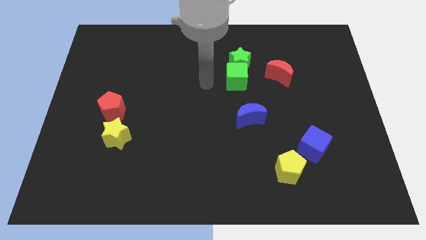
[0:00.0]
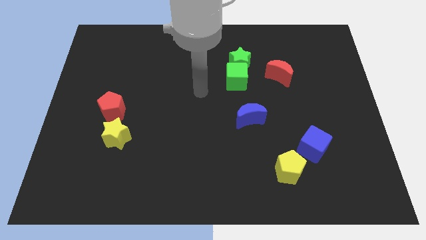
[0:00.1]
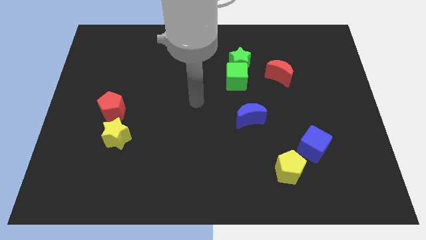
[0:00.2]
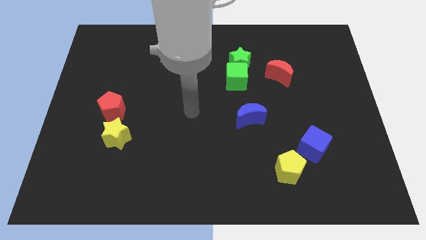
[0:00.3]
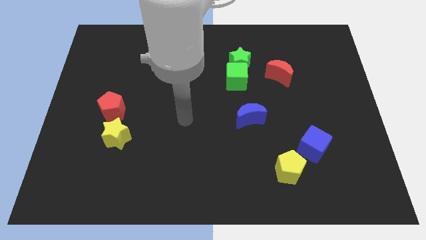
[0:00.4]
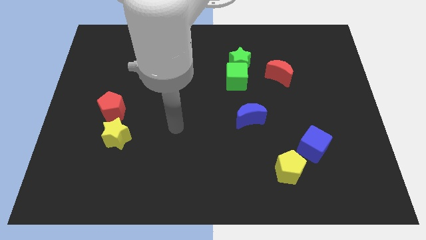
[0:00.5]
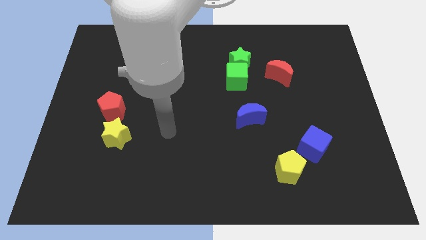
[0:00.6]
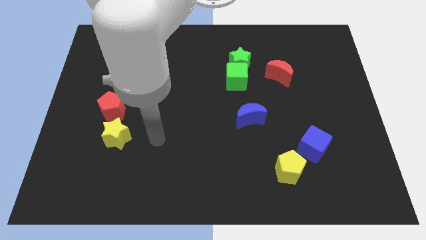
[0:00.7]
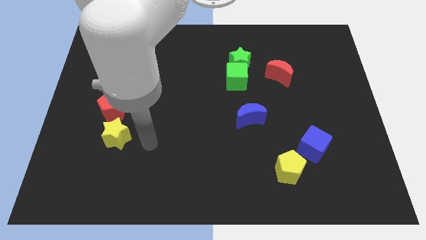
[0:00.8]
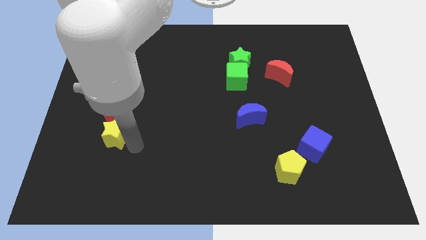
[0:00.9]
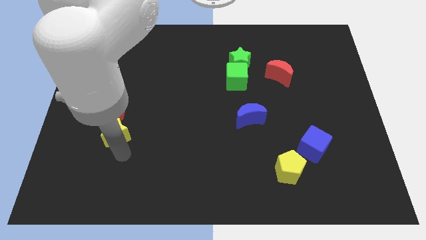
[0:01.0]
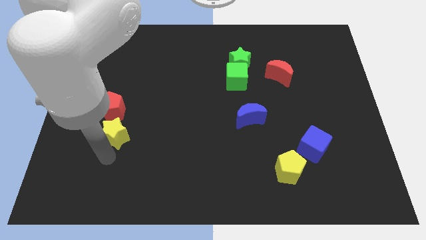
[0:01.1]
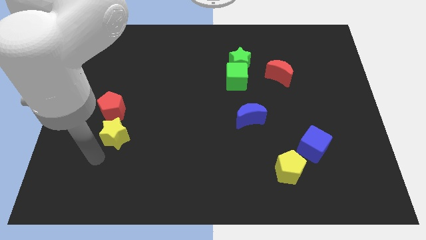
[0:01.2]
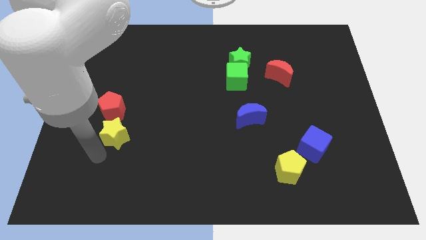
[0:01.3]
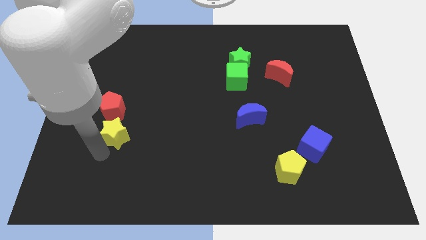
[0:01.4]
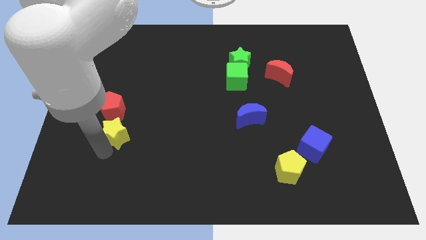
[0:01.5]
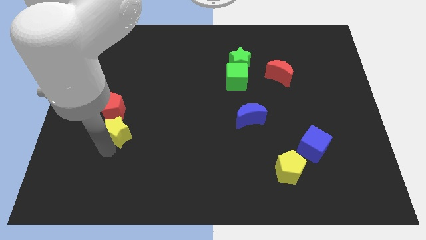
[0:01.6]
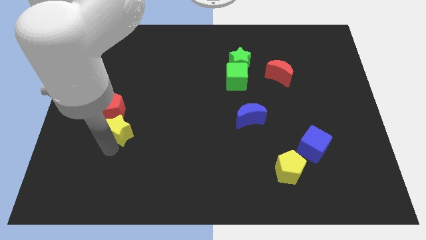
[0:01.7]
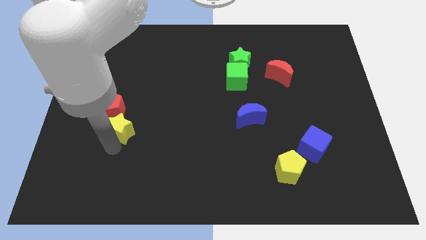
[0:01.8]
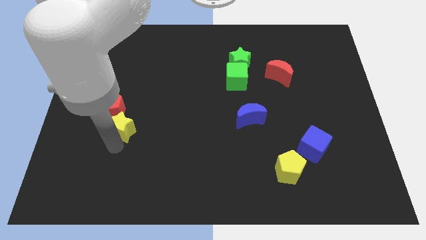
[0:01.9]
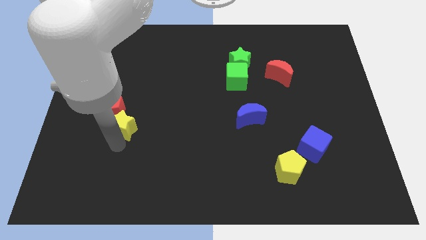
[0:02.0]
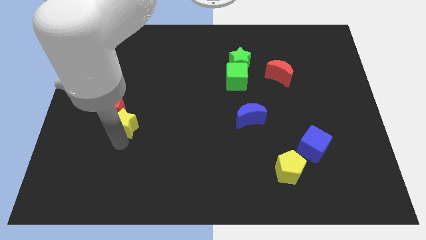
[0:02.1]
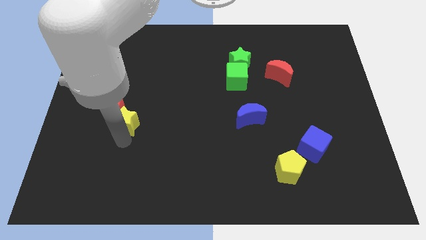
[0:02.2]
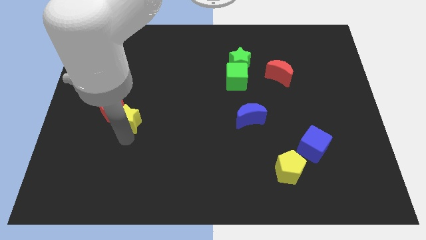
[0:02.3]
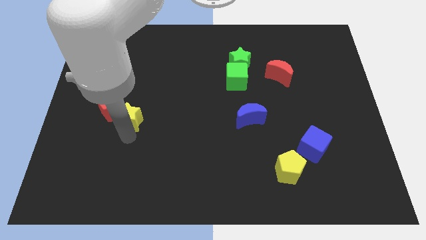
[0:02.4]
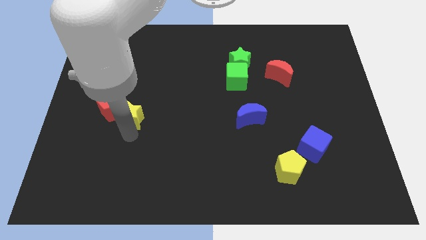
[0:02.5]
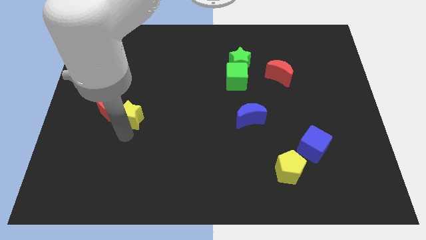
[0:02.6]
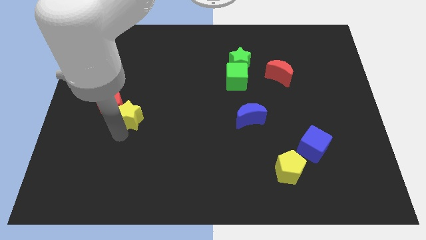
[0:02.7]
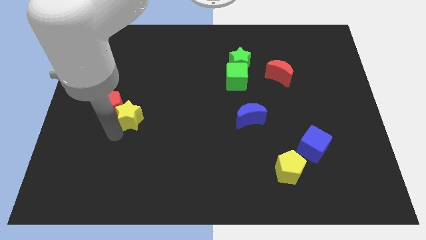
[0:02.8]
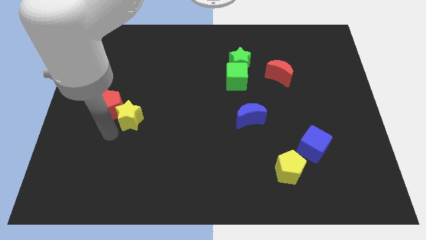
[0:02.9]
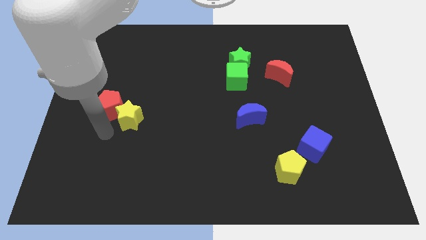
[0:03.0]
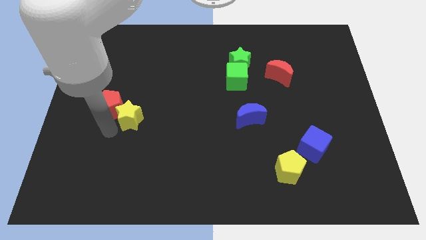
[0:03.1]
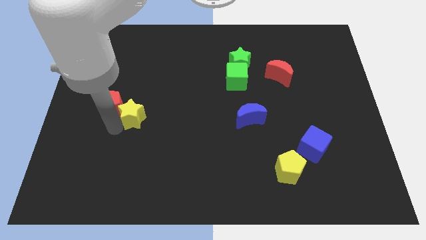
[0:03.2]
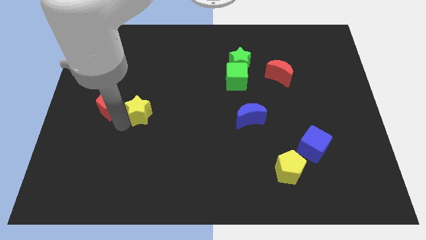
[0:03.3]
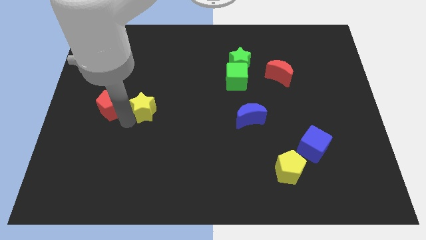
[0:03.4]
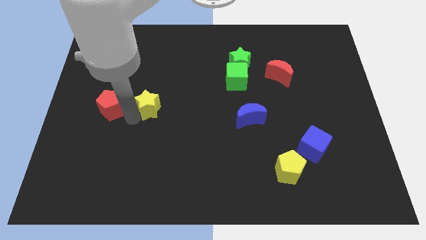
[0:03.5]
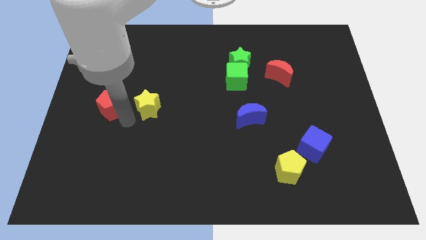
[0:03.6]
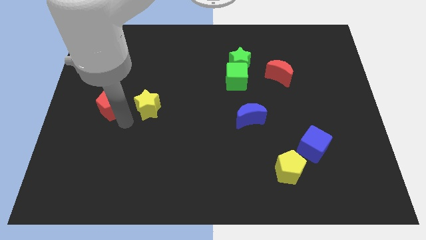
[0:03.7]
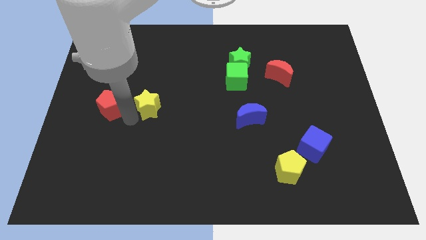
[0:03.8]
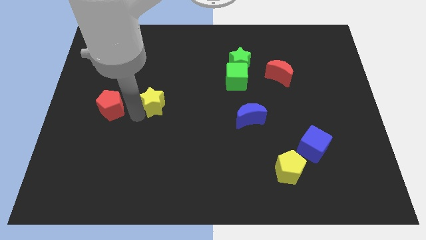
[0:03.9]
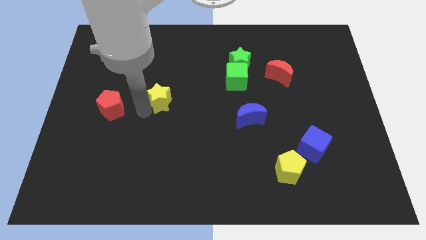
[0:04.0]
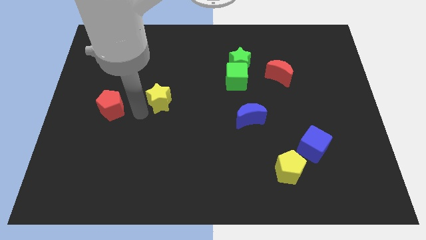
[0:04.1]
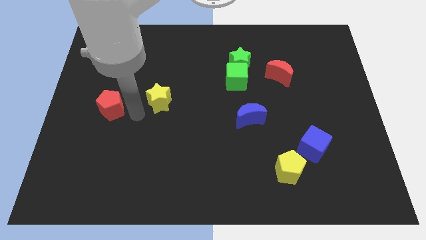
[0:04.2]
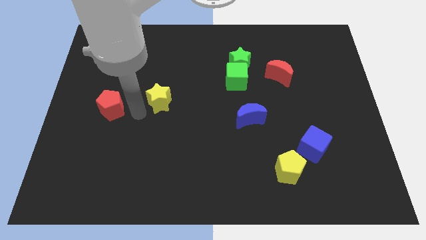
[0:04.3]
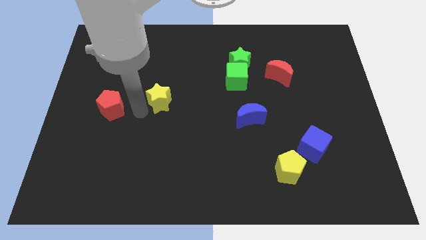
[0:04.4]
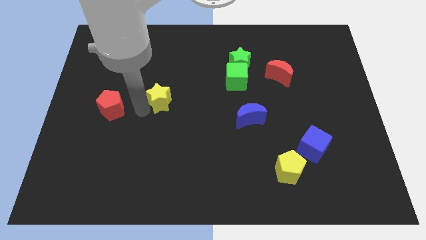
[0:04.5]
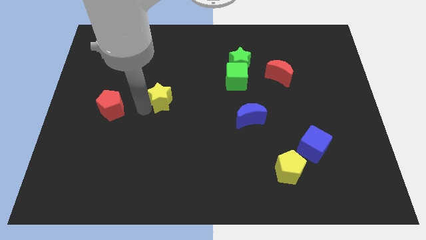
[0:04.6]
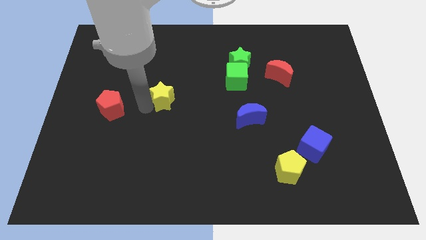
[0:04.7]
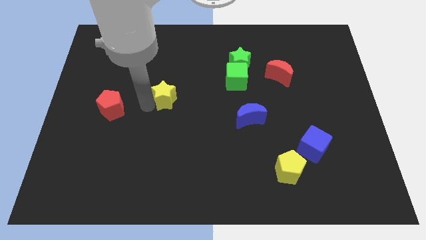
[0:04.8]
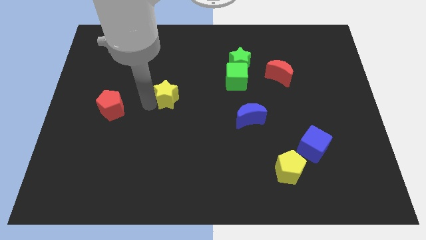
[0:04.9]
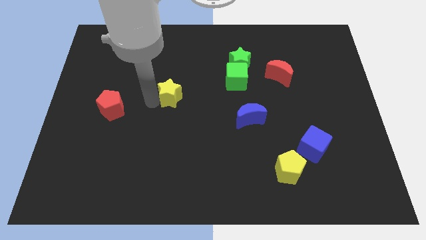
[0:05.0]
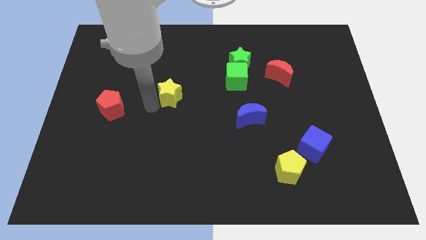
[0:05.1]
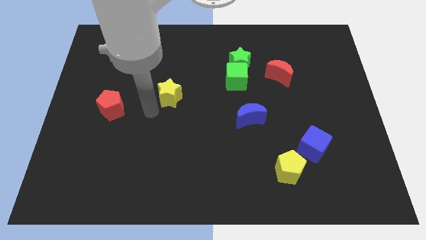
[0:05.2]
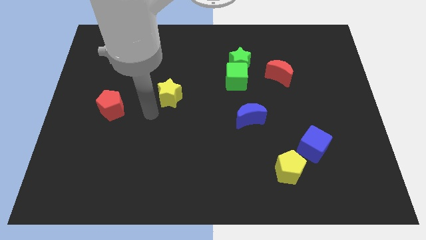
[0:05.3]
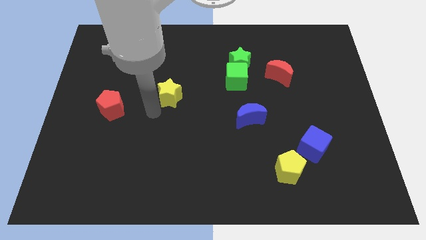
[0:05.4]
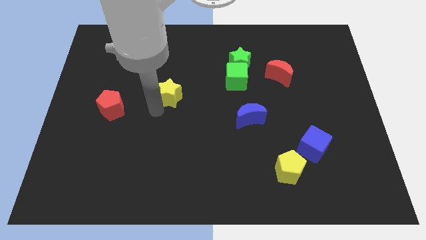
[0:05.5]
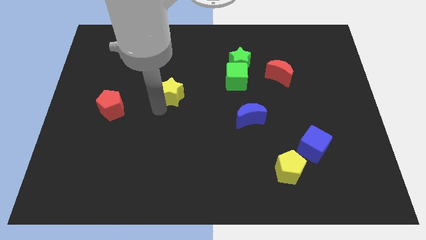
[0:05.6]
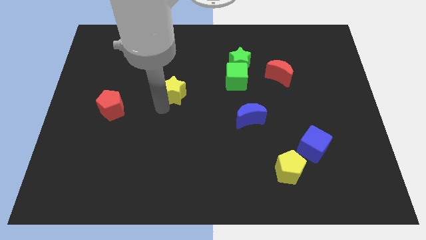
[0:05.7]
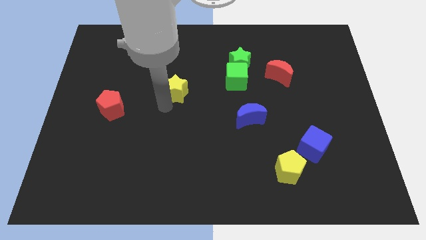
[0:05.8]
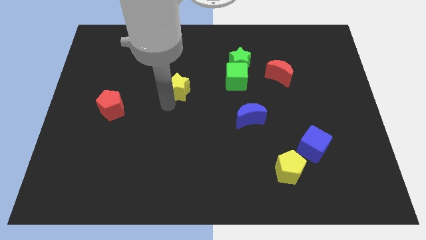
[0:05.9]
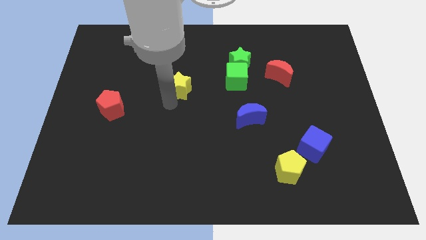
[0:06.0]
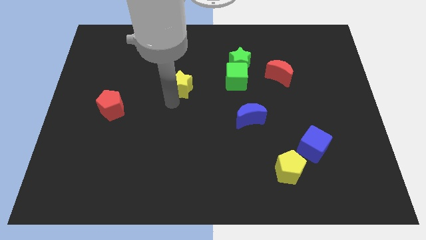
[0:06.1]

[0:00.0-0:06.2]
move the yellow star upwards and then to the right

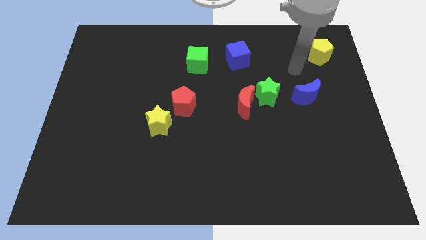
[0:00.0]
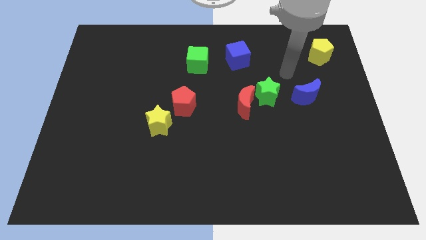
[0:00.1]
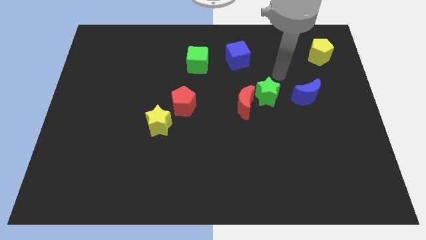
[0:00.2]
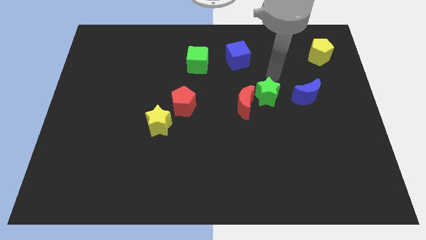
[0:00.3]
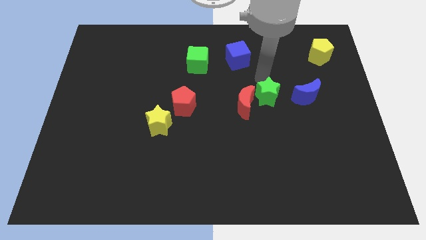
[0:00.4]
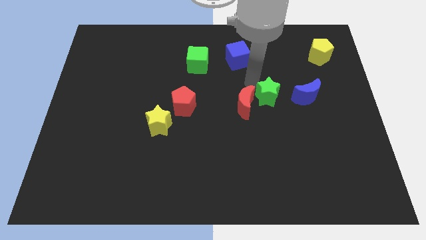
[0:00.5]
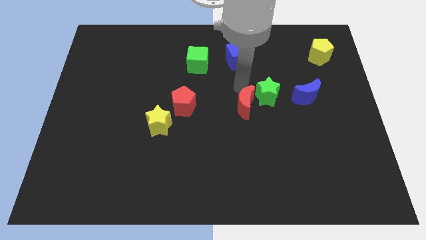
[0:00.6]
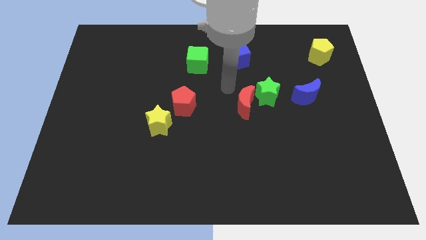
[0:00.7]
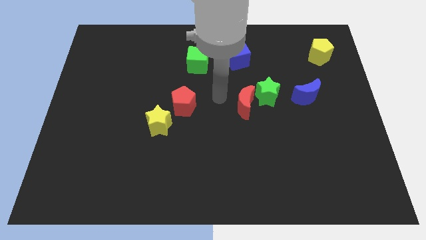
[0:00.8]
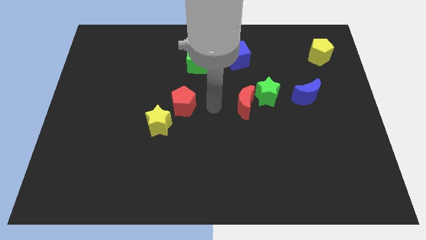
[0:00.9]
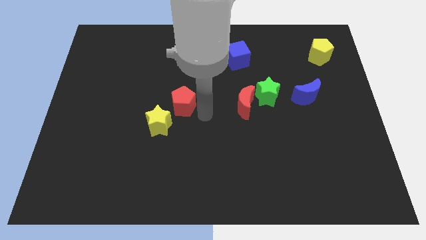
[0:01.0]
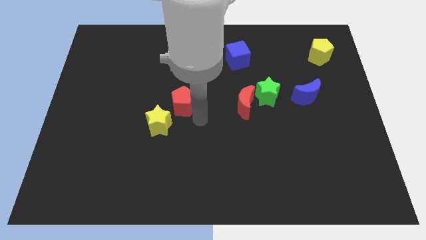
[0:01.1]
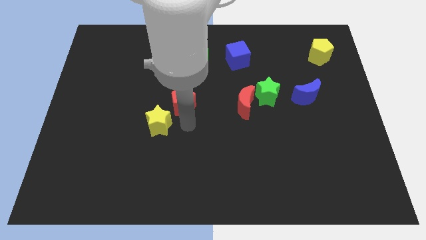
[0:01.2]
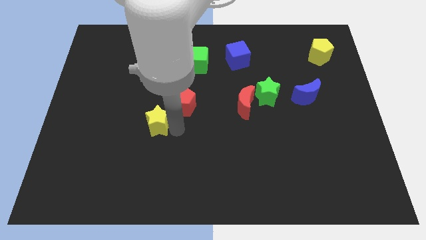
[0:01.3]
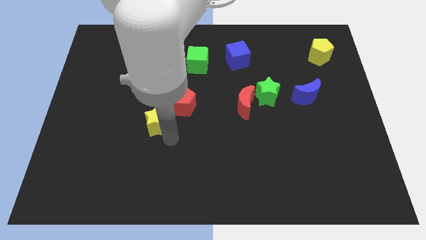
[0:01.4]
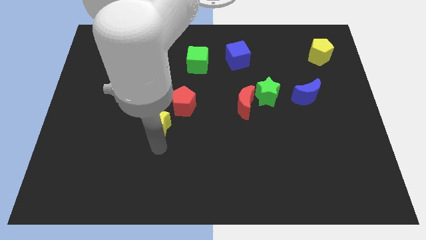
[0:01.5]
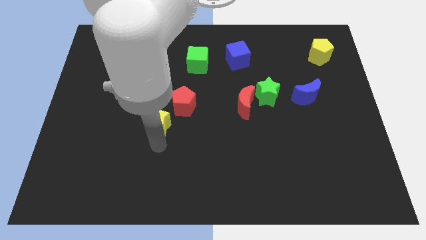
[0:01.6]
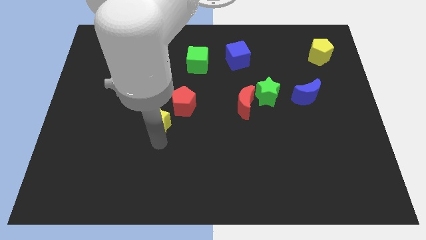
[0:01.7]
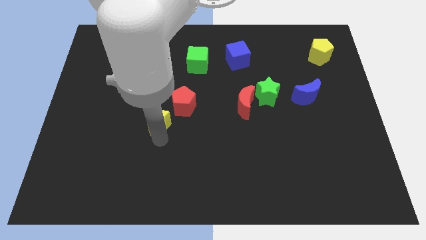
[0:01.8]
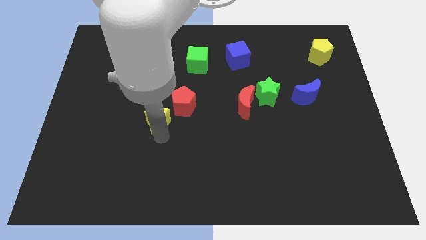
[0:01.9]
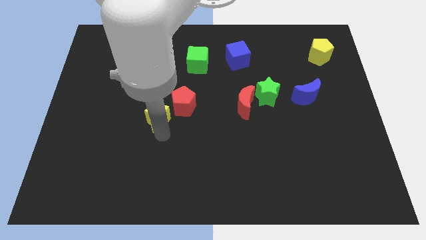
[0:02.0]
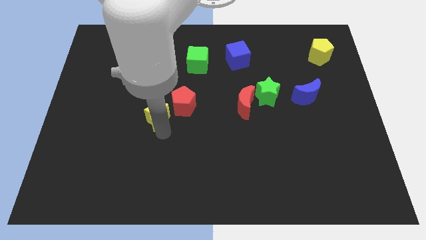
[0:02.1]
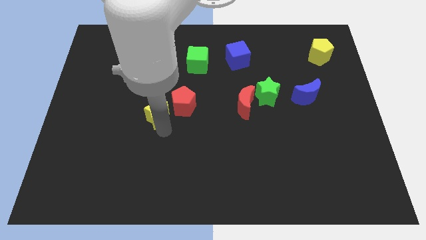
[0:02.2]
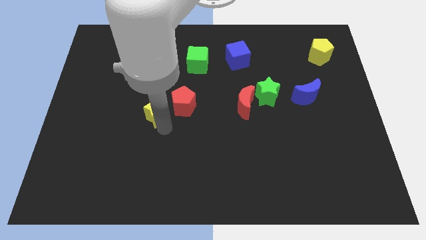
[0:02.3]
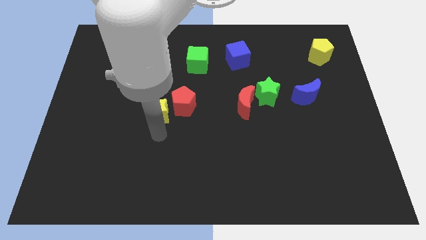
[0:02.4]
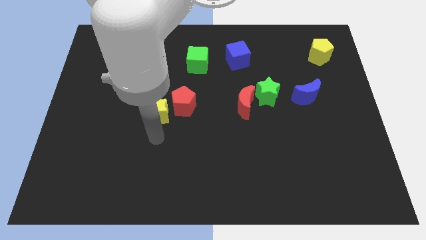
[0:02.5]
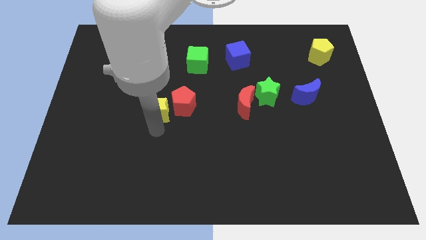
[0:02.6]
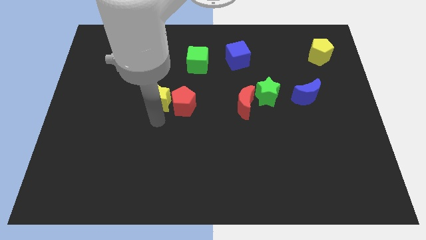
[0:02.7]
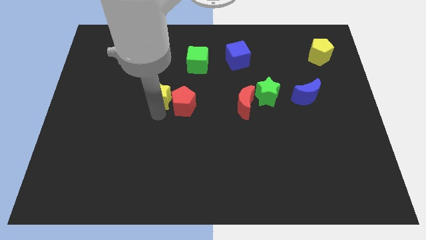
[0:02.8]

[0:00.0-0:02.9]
move the yellow star a little bit upwards
